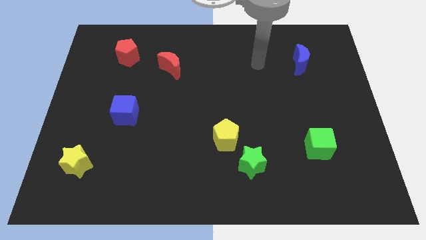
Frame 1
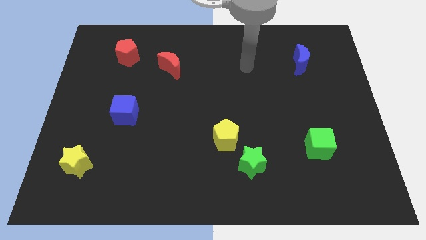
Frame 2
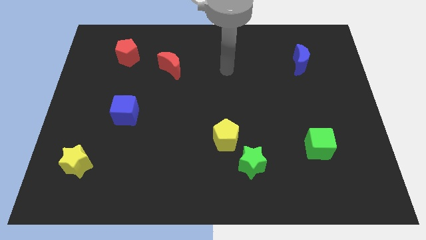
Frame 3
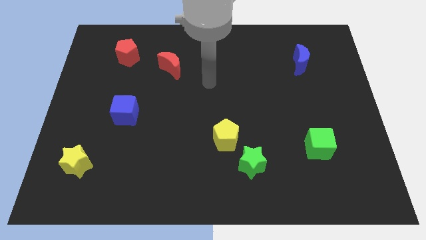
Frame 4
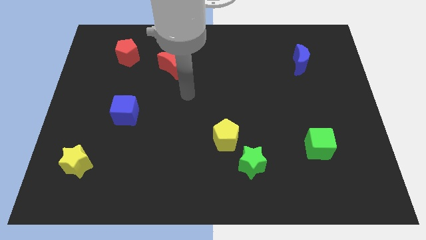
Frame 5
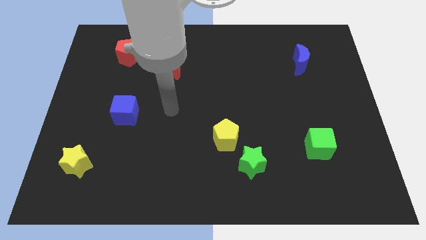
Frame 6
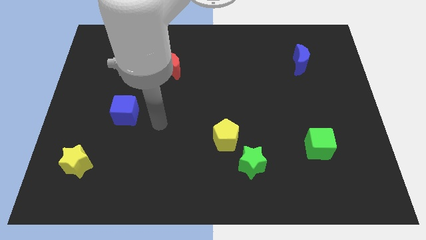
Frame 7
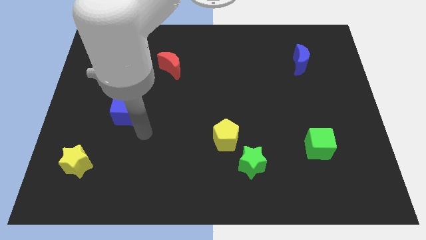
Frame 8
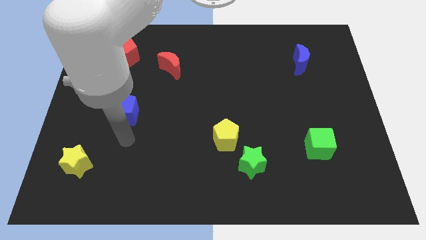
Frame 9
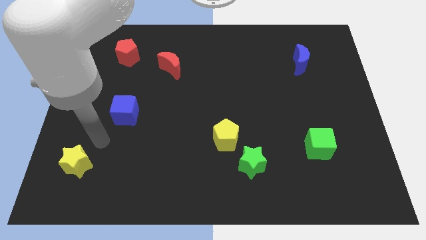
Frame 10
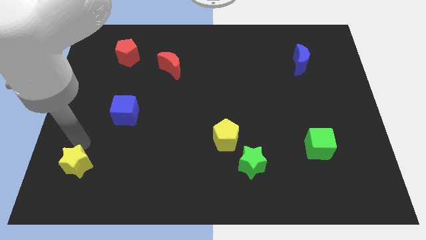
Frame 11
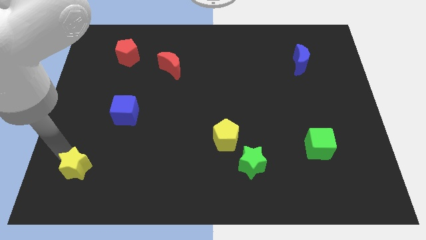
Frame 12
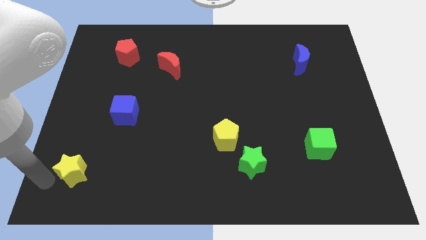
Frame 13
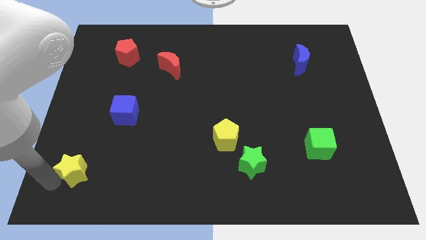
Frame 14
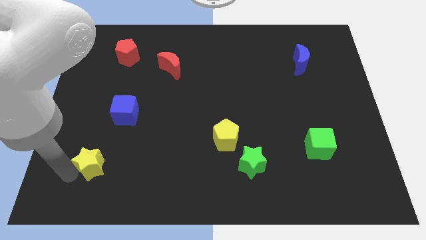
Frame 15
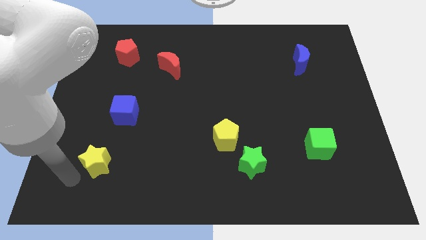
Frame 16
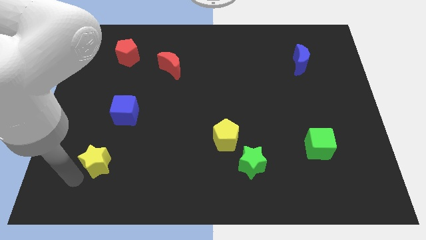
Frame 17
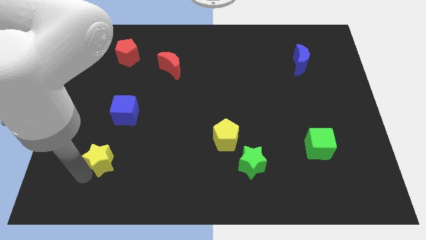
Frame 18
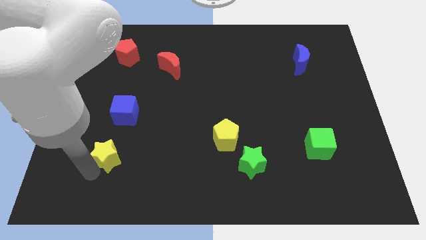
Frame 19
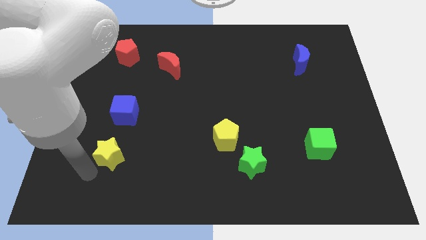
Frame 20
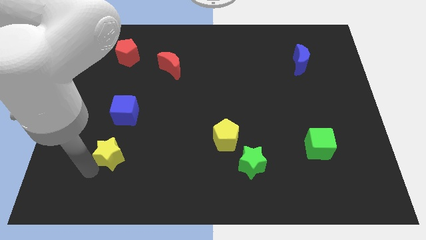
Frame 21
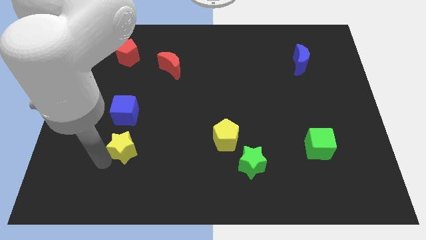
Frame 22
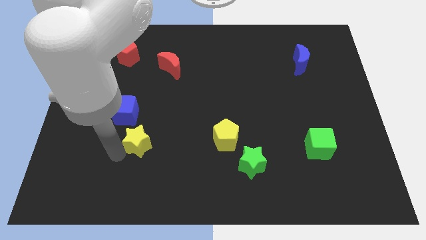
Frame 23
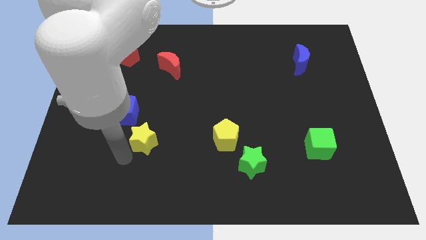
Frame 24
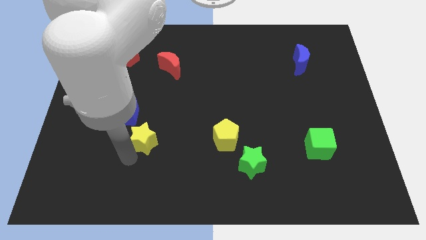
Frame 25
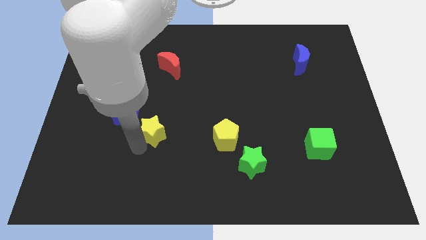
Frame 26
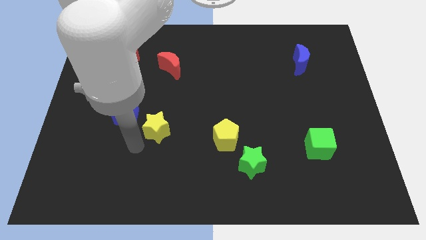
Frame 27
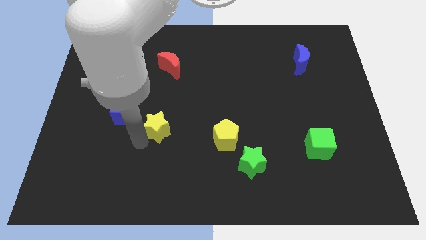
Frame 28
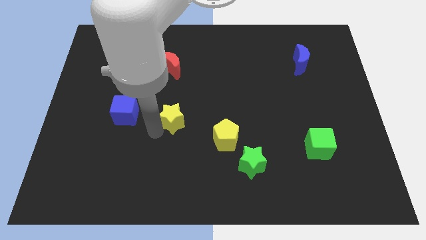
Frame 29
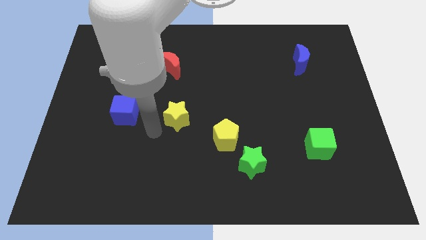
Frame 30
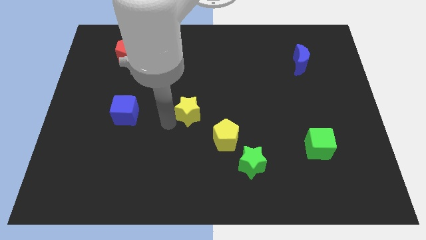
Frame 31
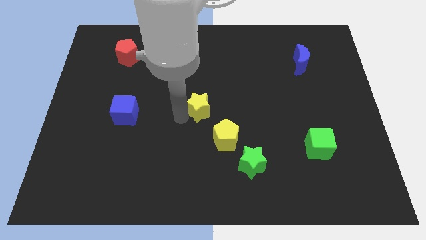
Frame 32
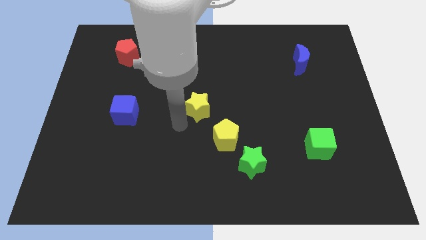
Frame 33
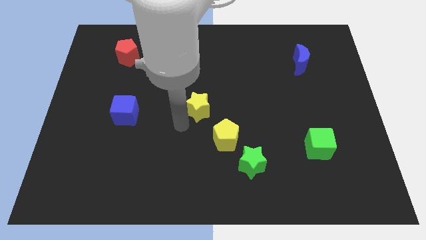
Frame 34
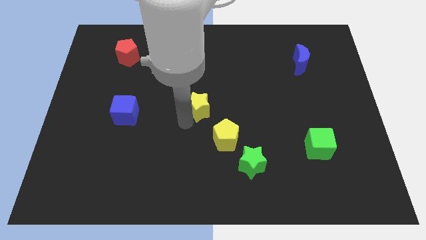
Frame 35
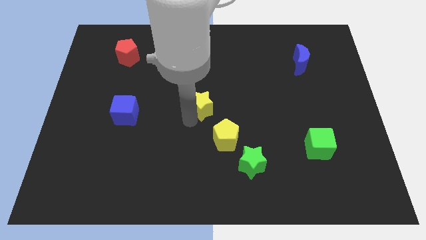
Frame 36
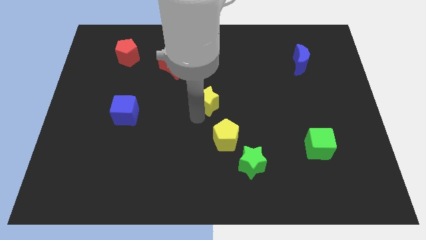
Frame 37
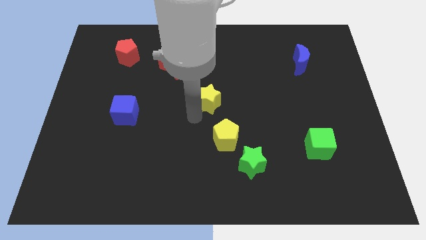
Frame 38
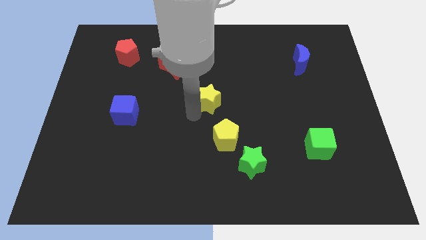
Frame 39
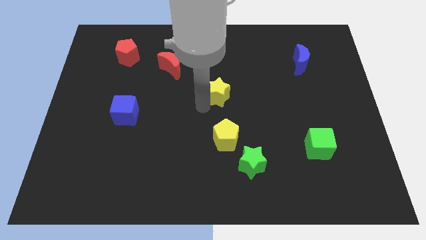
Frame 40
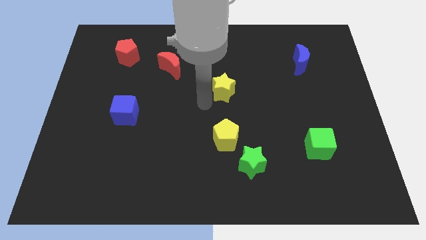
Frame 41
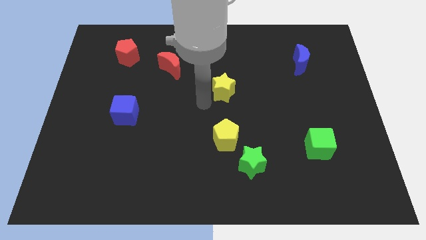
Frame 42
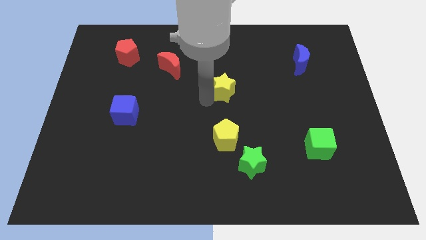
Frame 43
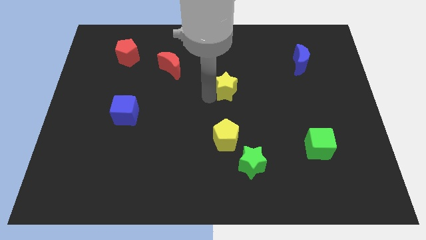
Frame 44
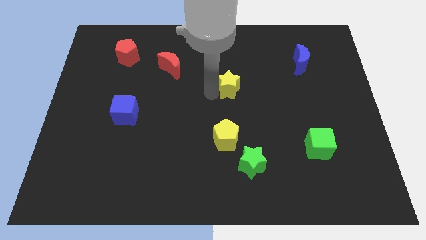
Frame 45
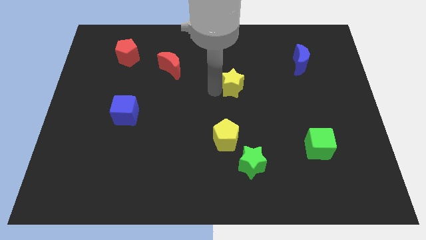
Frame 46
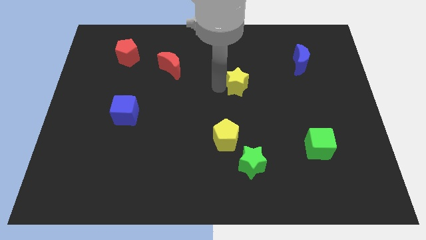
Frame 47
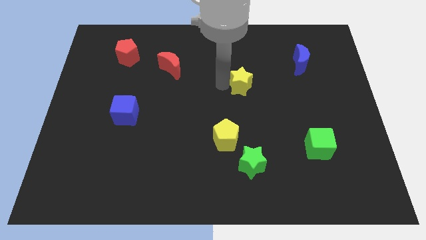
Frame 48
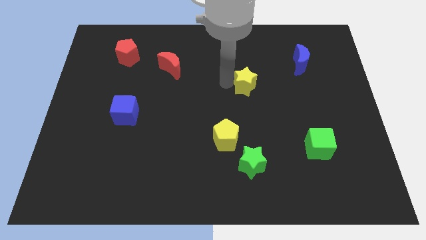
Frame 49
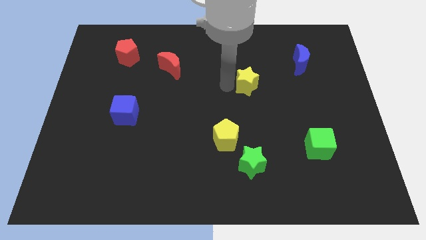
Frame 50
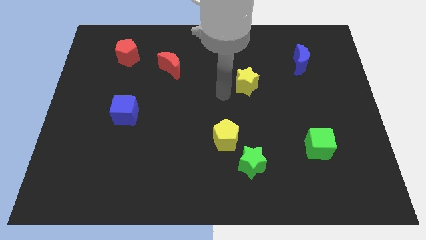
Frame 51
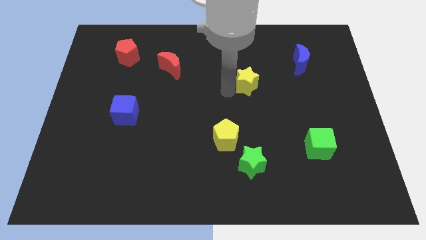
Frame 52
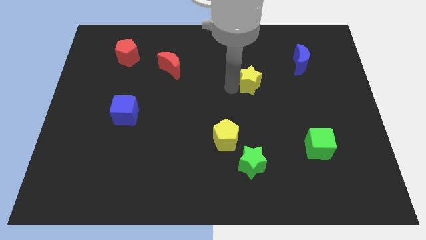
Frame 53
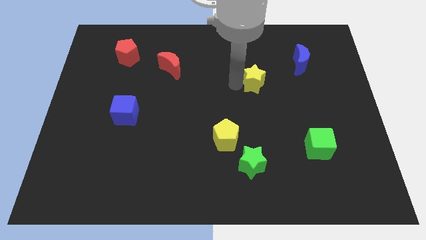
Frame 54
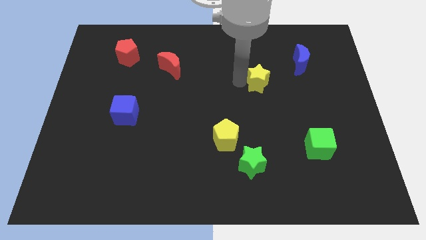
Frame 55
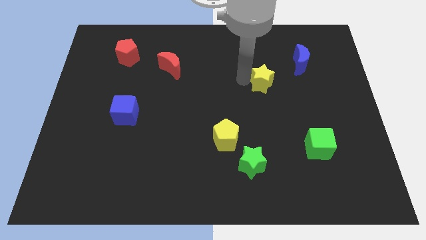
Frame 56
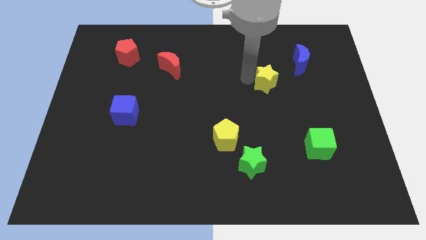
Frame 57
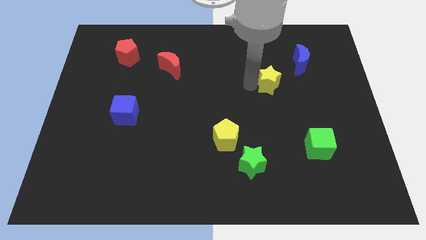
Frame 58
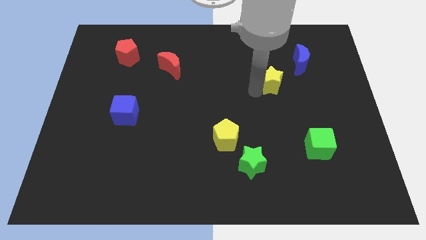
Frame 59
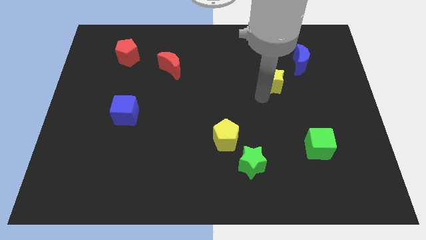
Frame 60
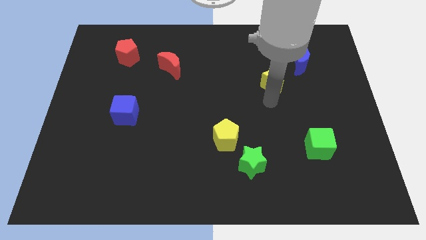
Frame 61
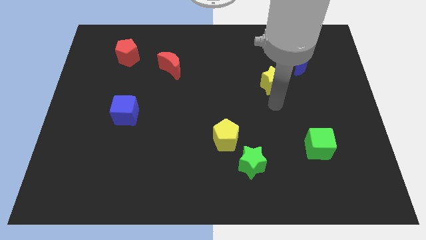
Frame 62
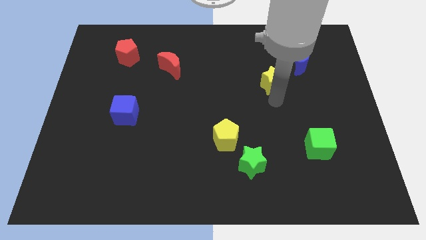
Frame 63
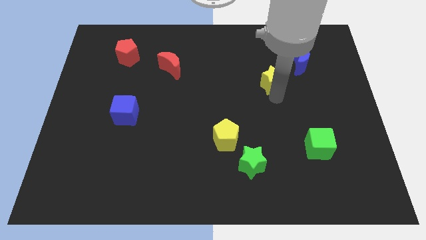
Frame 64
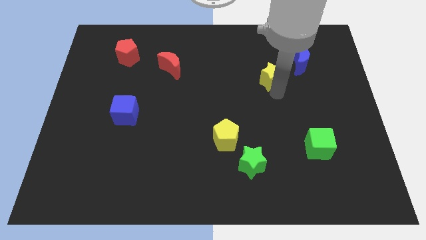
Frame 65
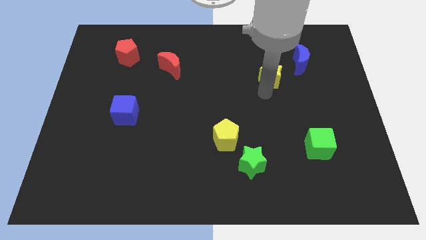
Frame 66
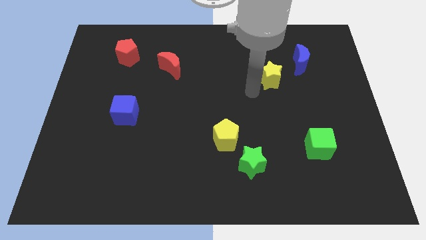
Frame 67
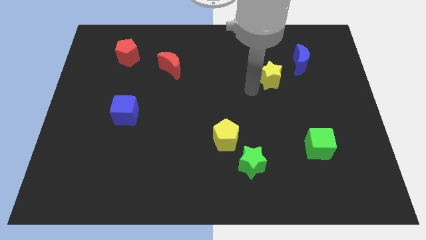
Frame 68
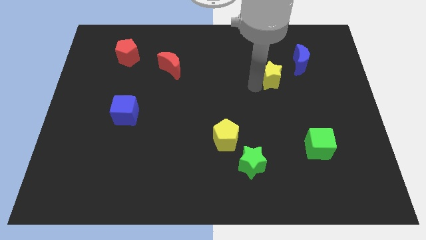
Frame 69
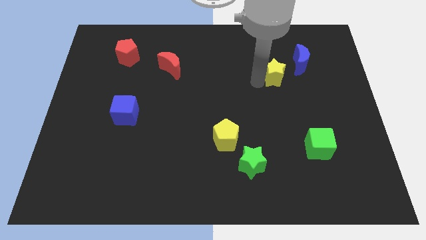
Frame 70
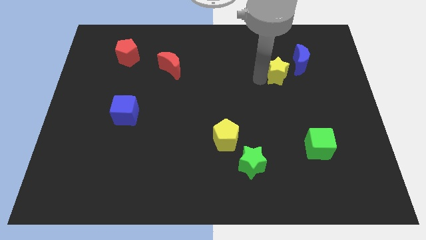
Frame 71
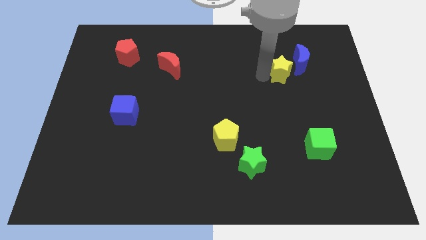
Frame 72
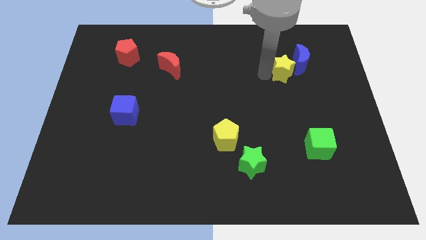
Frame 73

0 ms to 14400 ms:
push the yellow star to the blue moon
